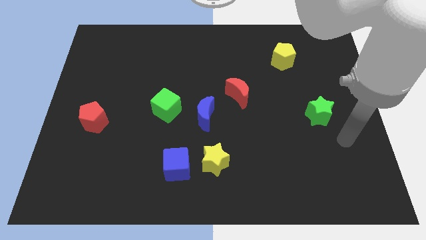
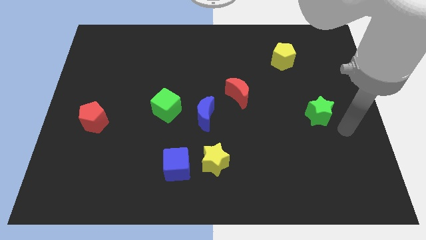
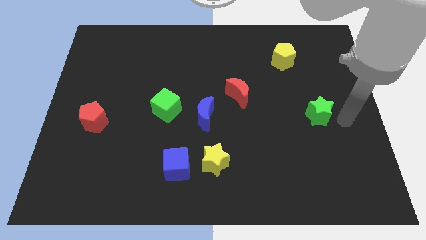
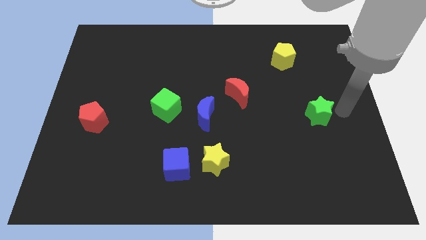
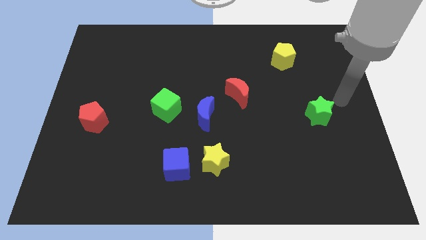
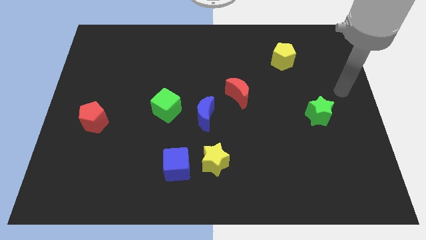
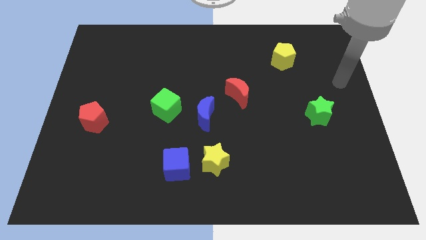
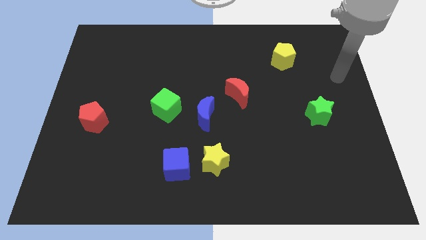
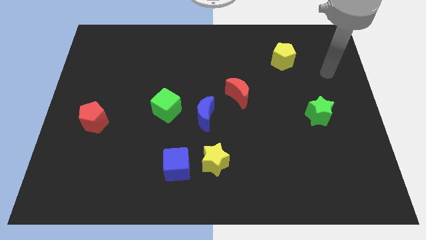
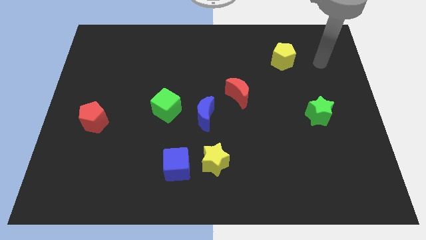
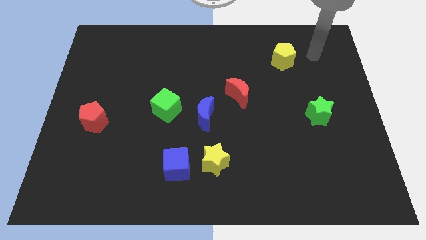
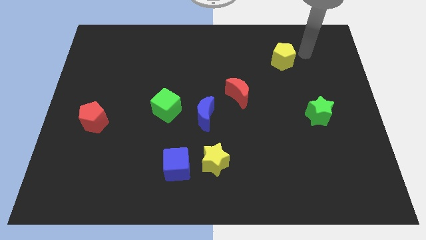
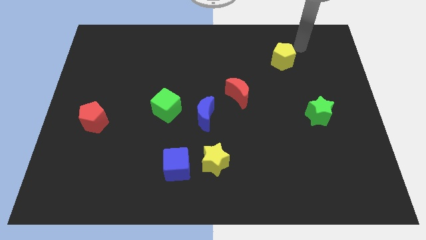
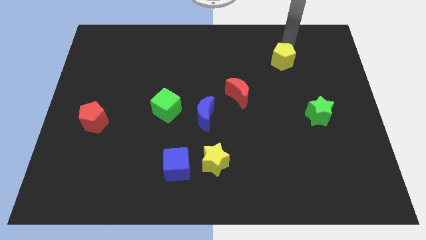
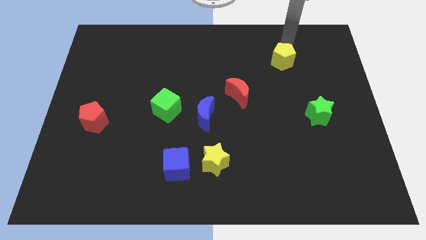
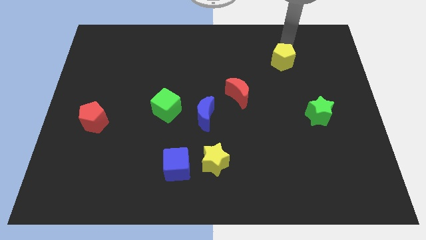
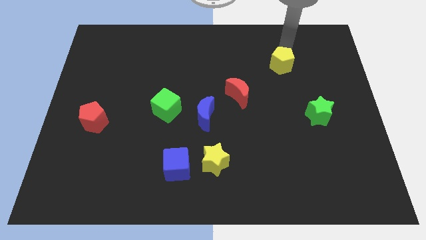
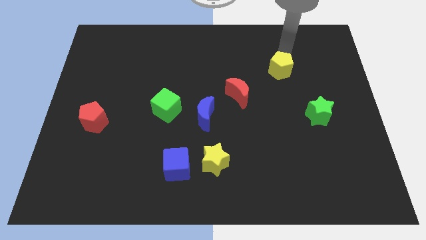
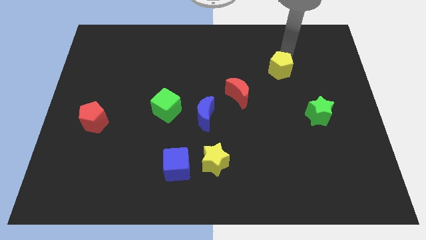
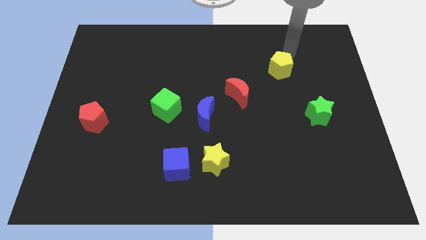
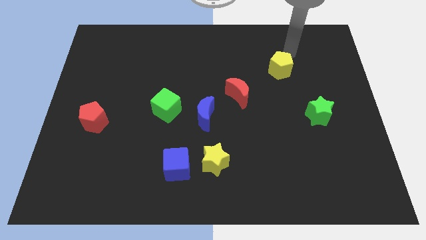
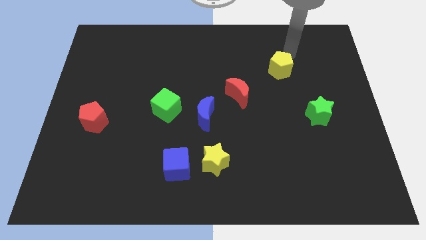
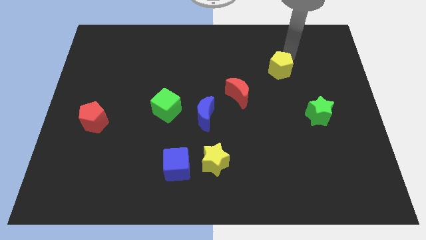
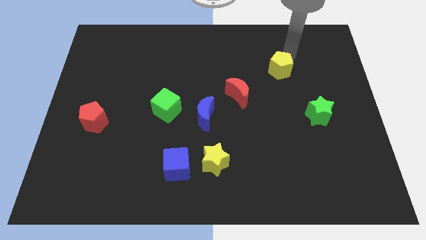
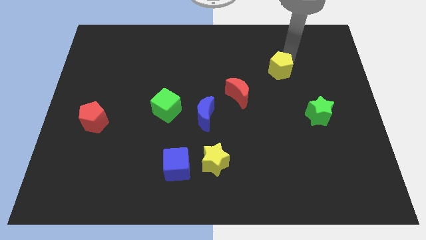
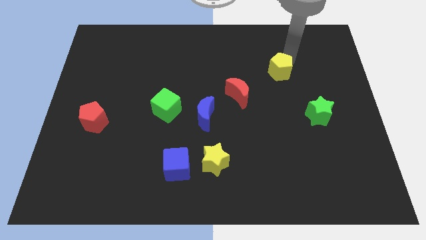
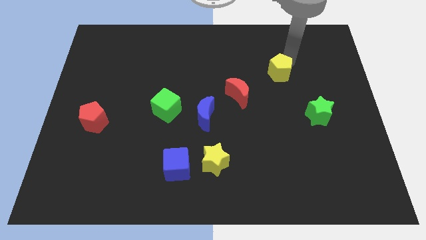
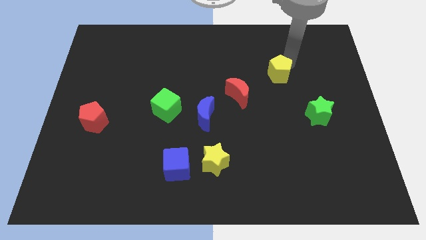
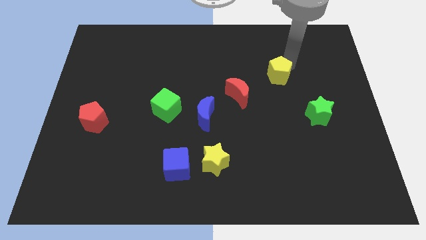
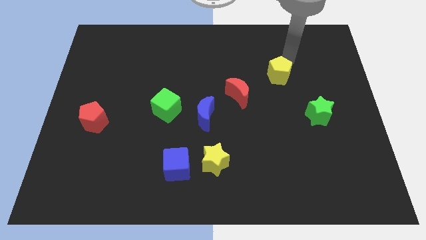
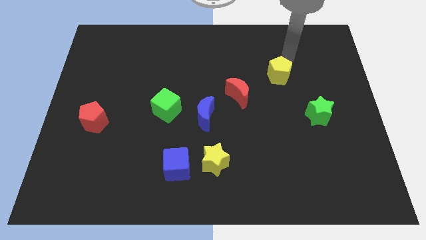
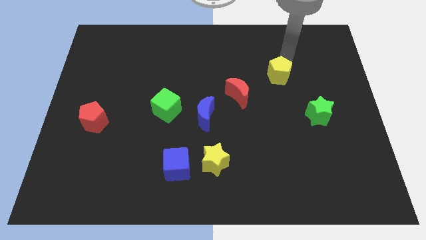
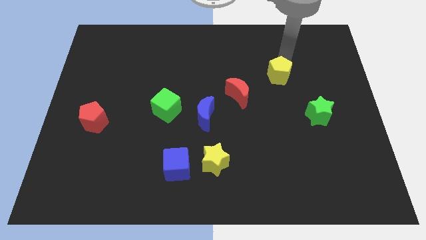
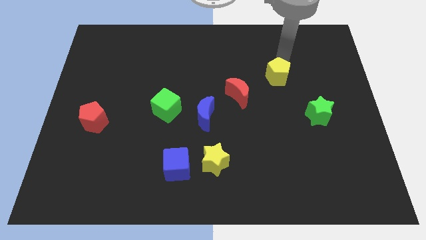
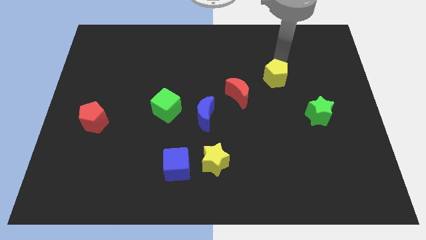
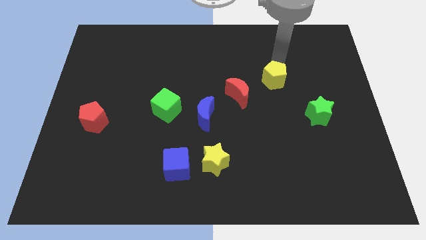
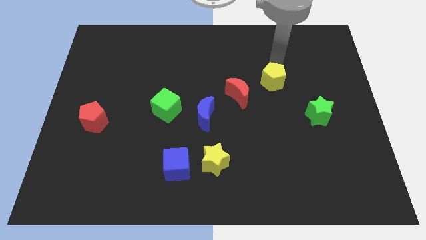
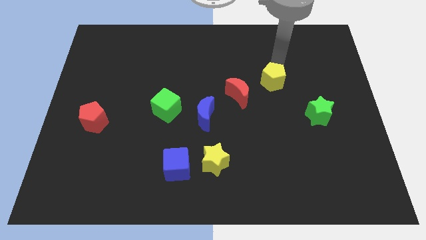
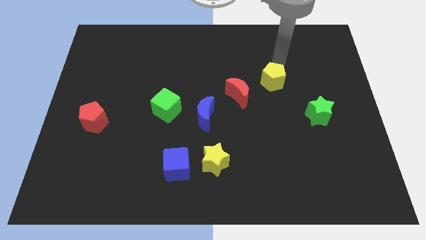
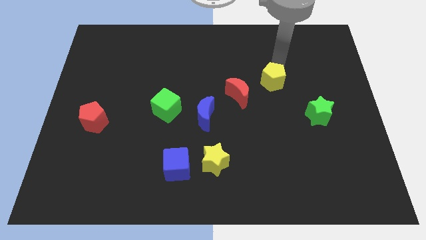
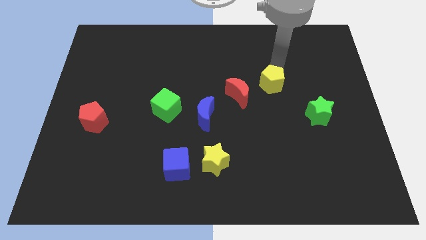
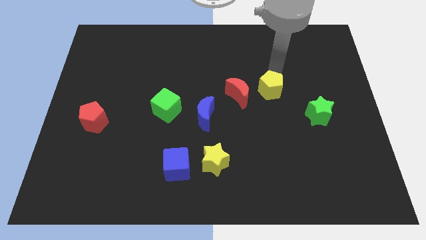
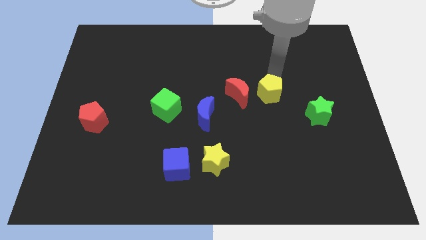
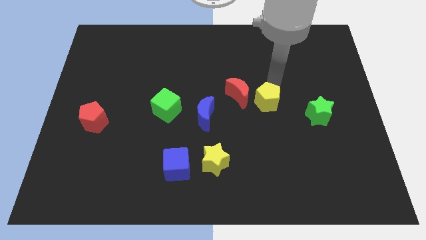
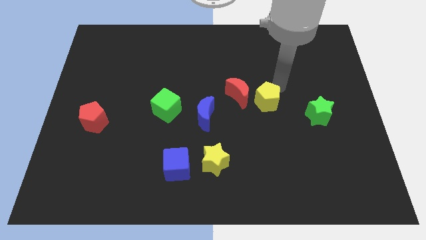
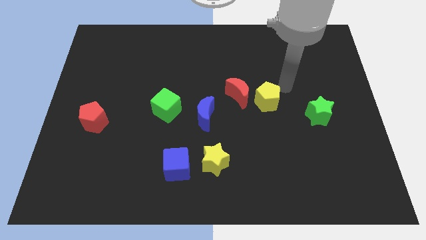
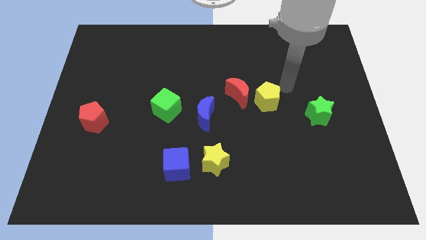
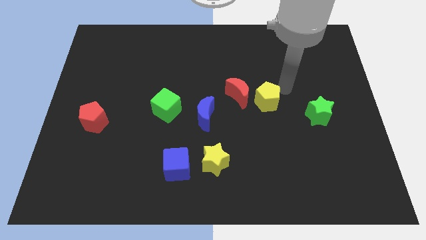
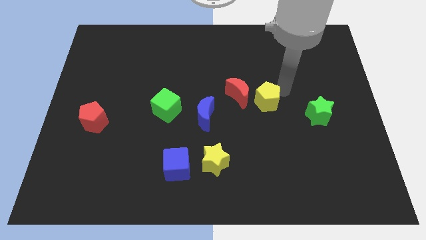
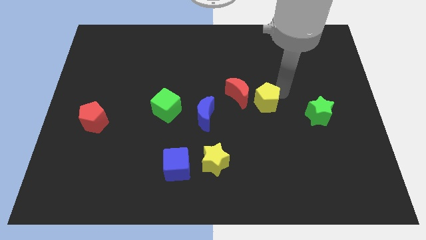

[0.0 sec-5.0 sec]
move the yellow pentagon to the center

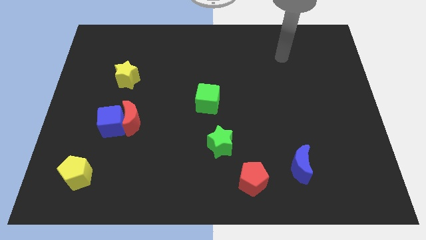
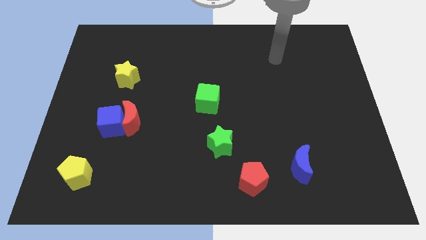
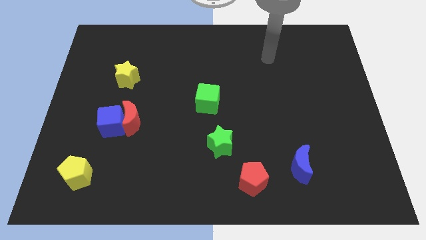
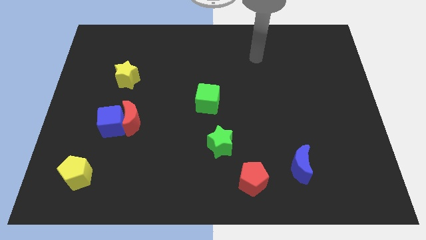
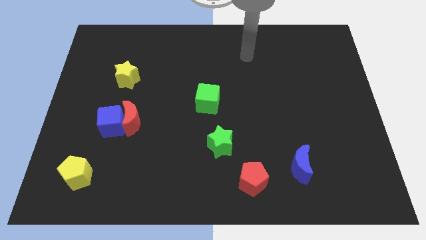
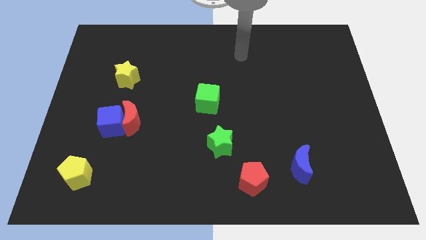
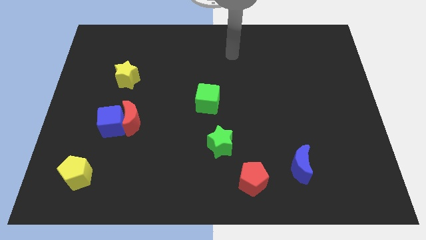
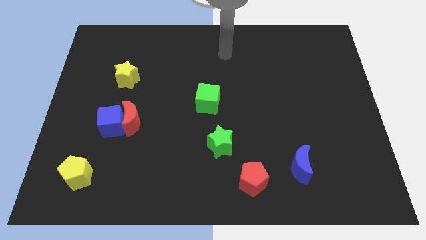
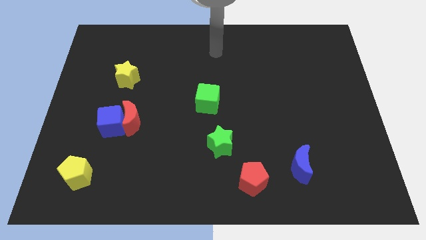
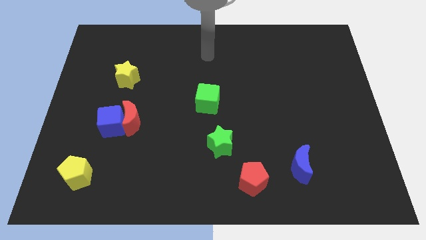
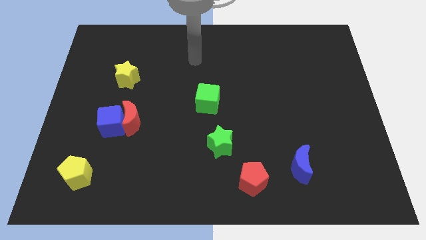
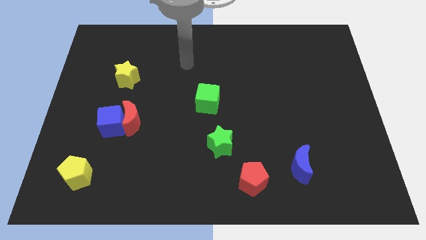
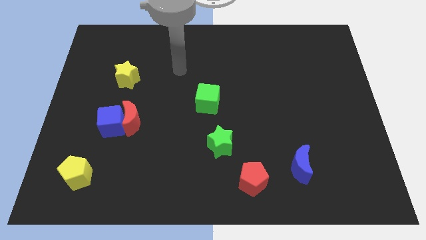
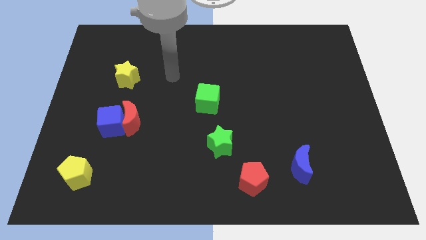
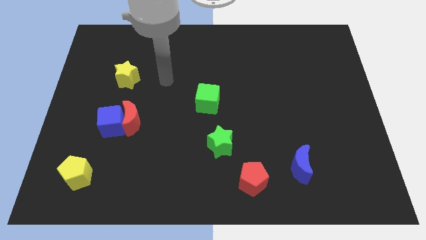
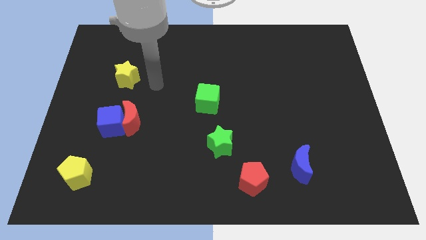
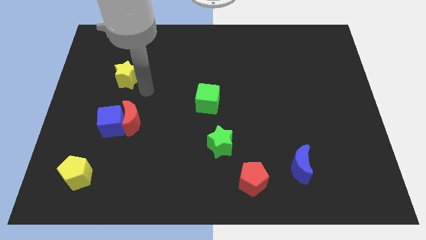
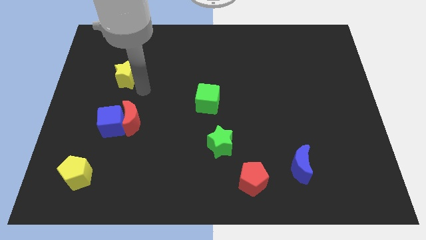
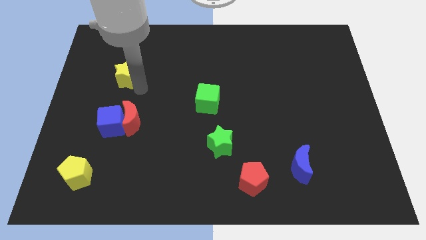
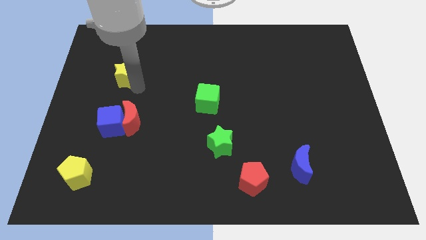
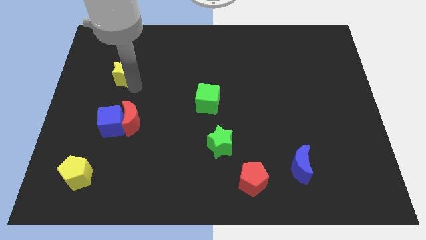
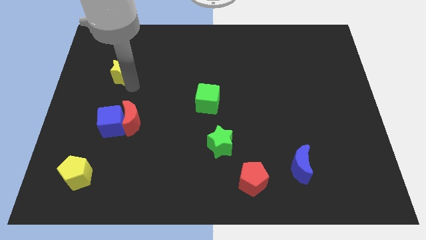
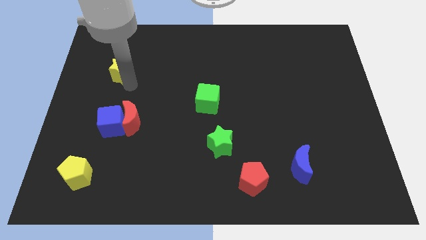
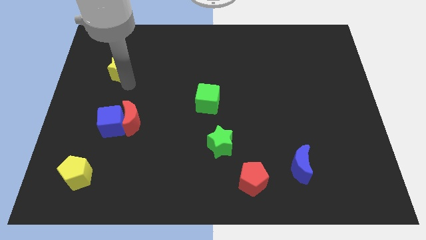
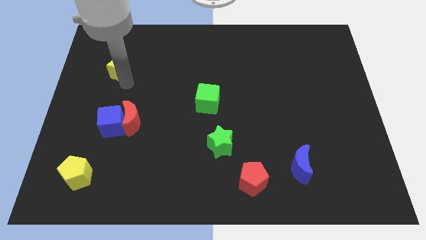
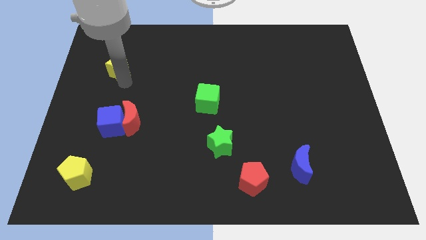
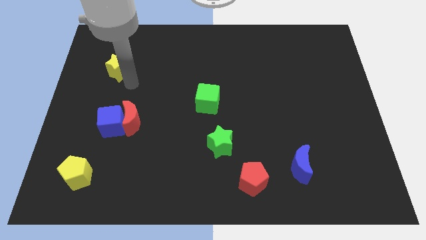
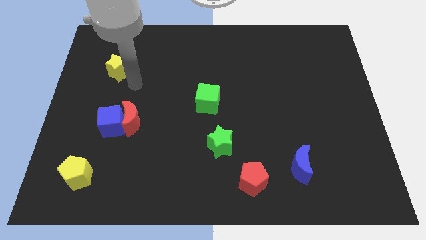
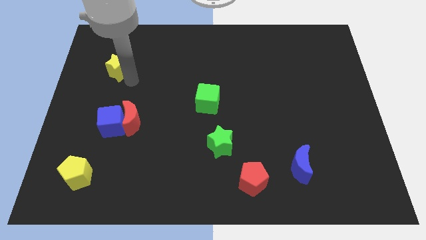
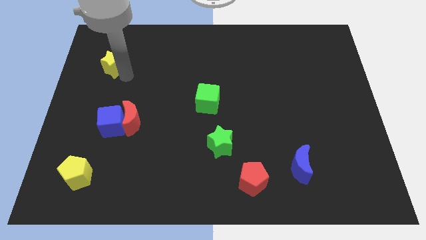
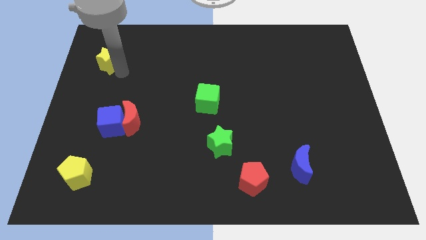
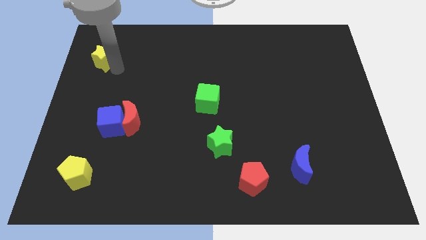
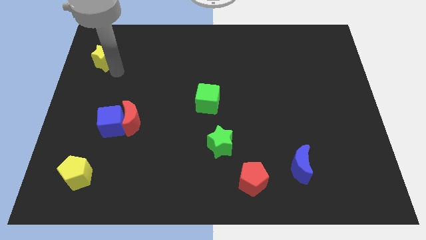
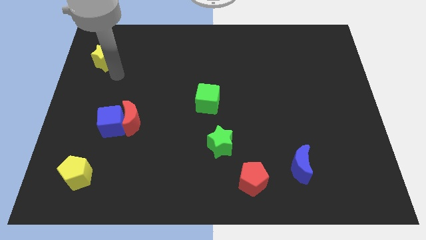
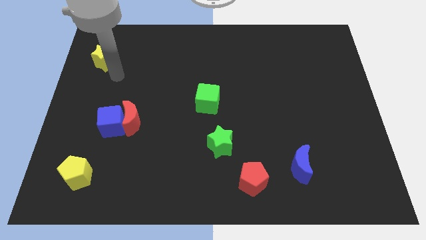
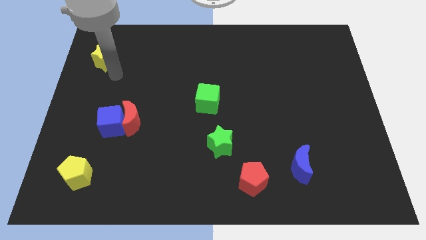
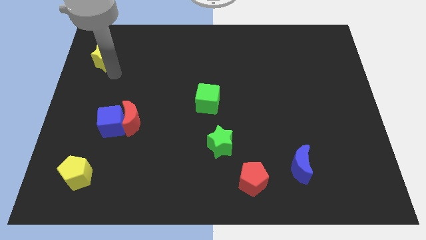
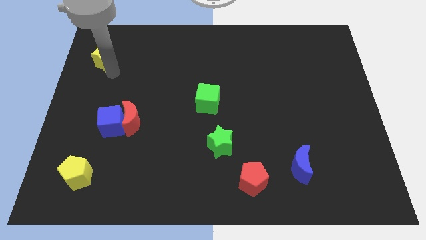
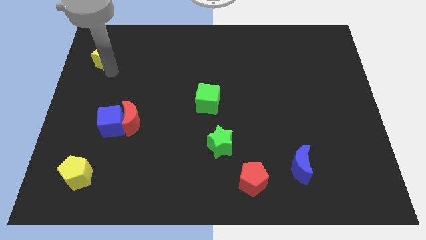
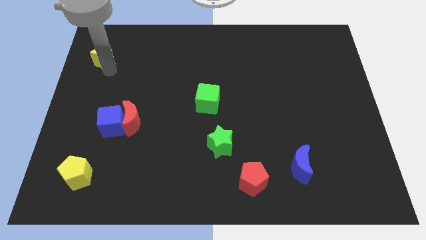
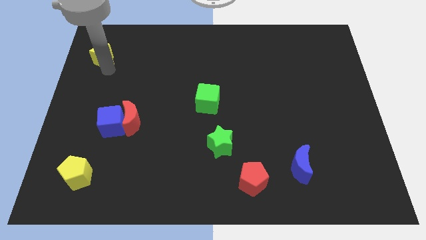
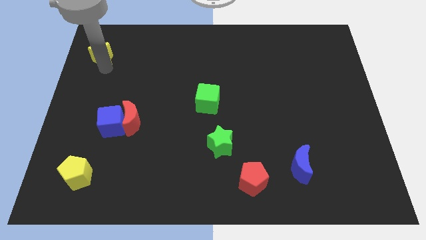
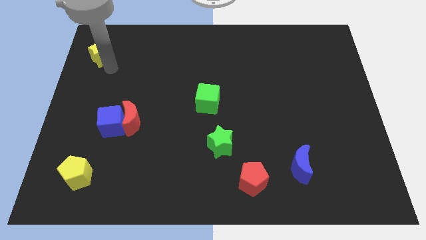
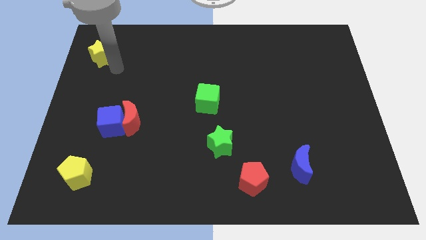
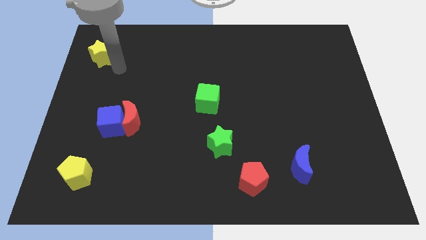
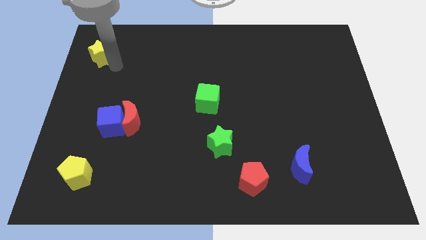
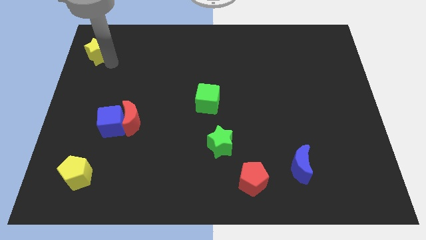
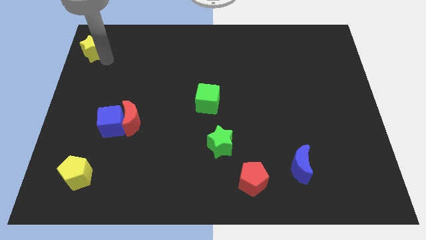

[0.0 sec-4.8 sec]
move the yellow star to the upper left corner
